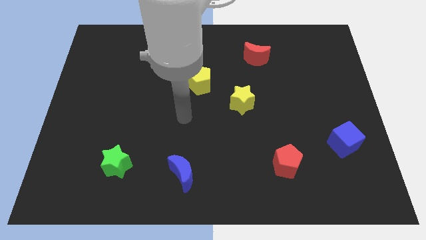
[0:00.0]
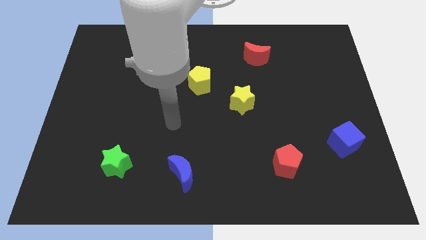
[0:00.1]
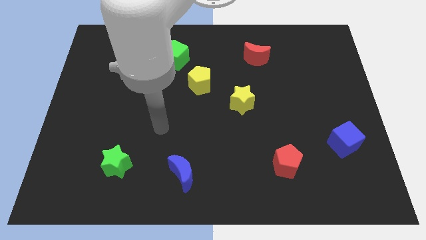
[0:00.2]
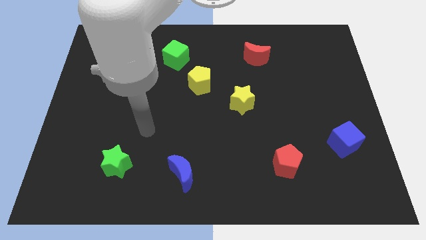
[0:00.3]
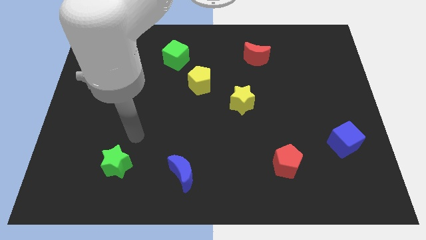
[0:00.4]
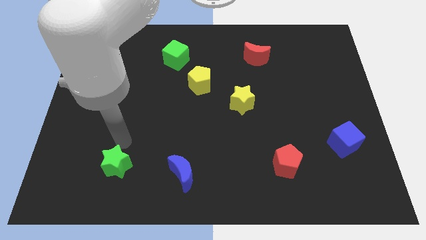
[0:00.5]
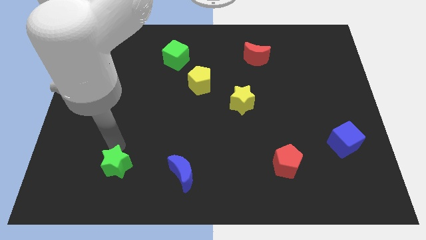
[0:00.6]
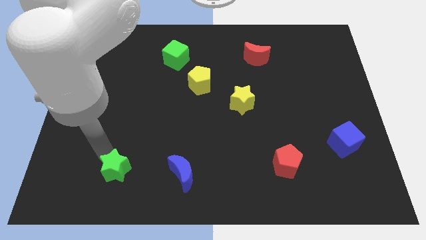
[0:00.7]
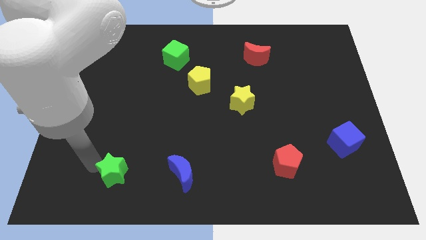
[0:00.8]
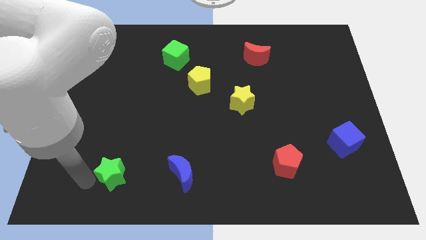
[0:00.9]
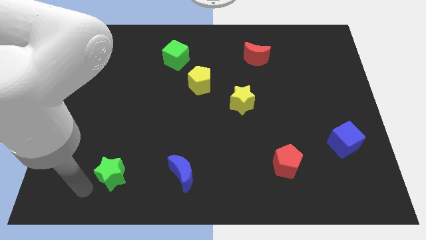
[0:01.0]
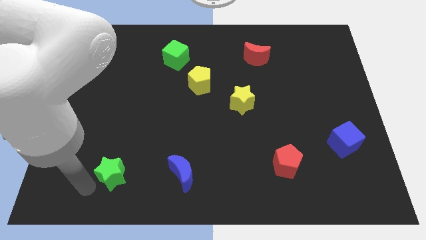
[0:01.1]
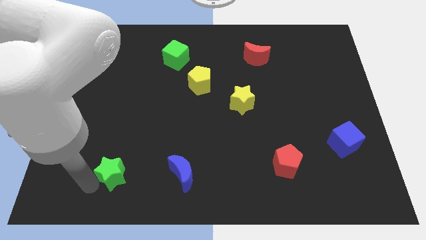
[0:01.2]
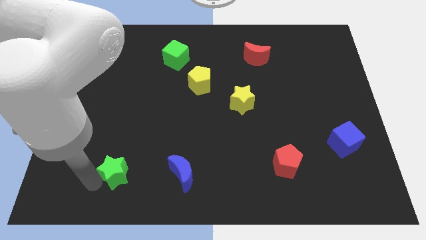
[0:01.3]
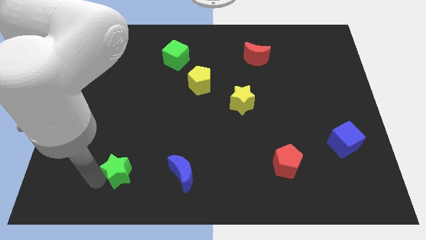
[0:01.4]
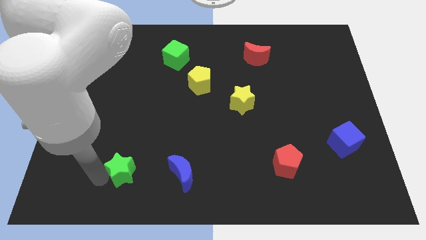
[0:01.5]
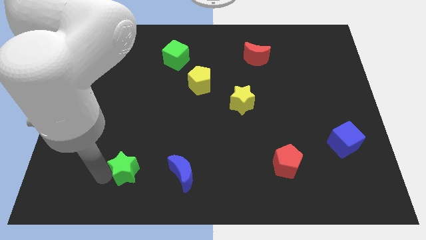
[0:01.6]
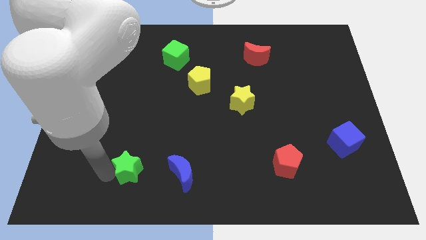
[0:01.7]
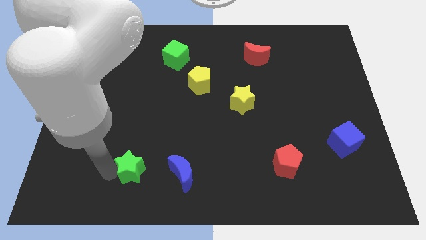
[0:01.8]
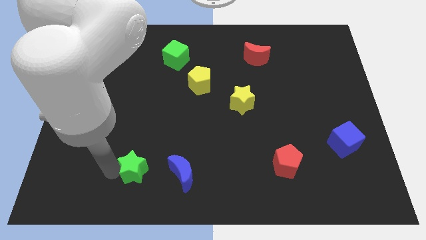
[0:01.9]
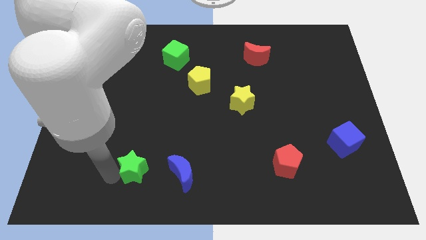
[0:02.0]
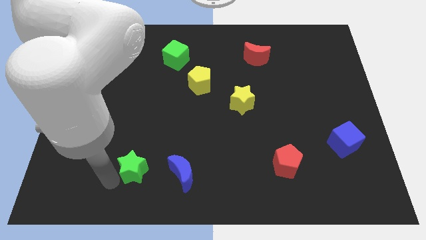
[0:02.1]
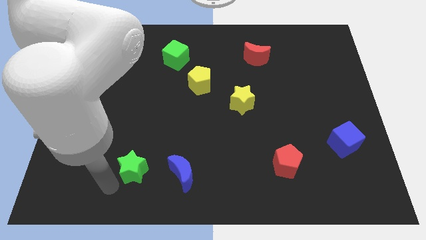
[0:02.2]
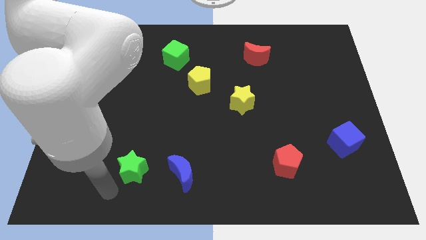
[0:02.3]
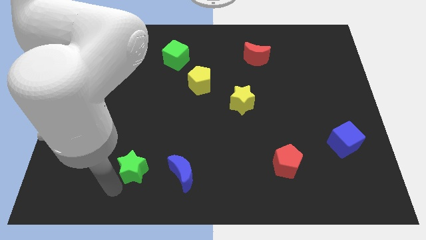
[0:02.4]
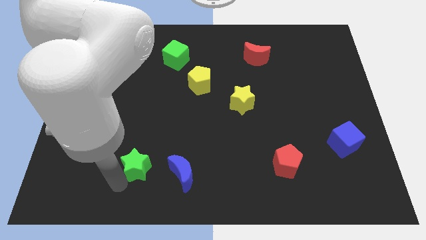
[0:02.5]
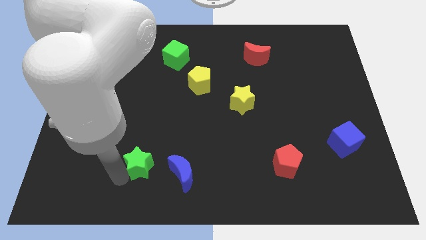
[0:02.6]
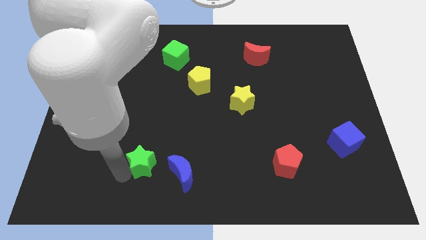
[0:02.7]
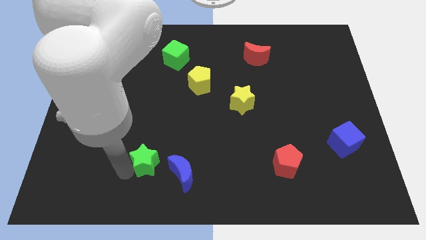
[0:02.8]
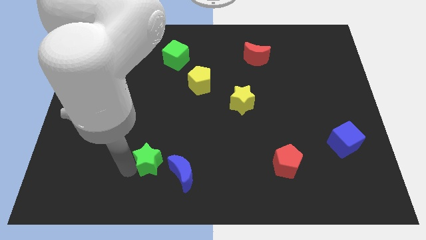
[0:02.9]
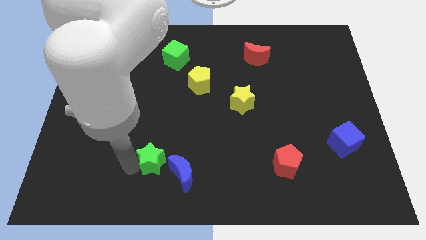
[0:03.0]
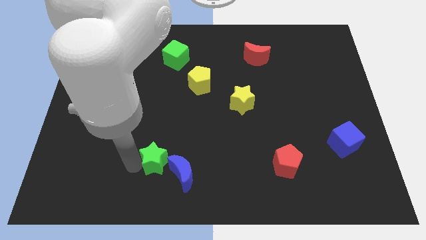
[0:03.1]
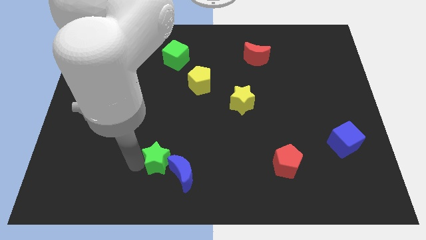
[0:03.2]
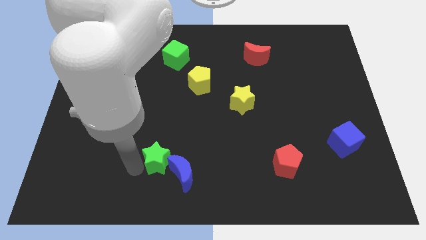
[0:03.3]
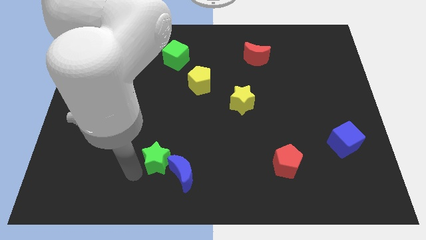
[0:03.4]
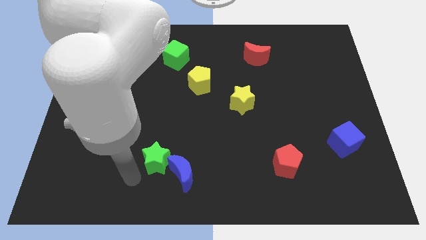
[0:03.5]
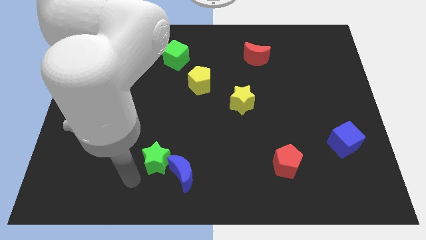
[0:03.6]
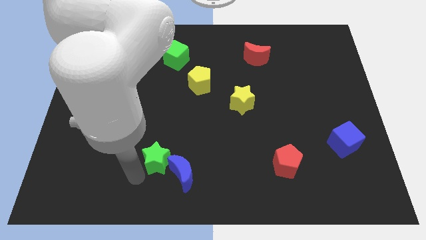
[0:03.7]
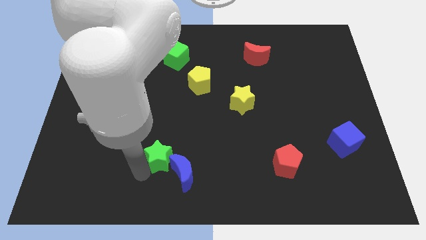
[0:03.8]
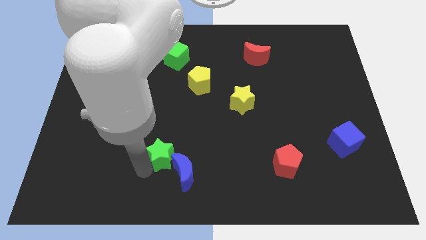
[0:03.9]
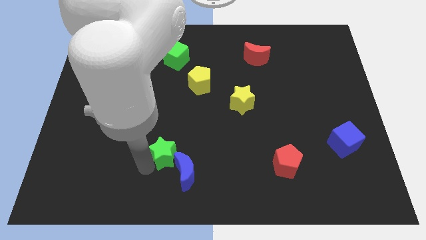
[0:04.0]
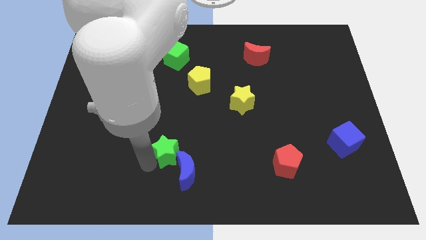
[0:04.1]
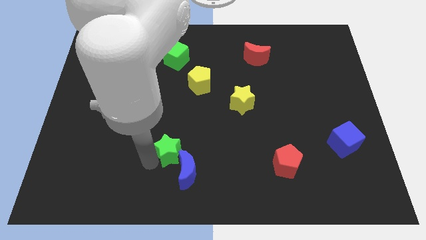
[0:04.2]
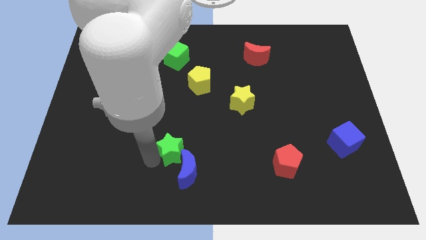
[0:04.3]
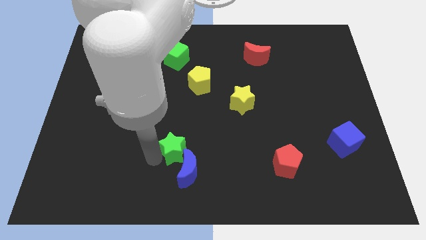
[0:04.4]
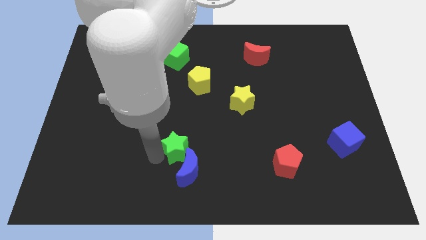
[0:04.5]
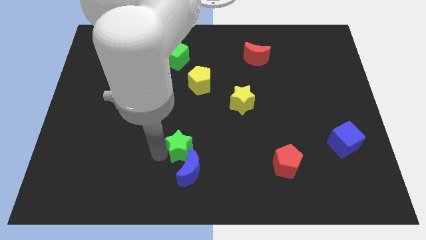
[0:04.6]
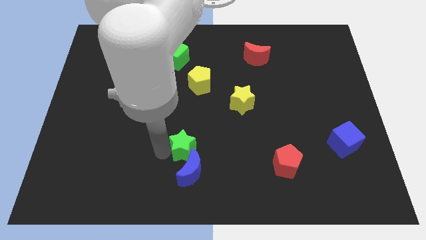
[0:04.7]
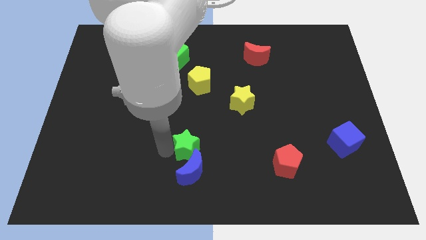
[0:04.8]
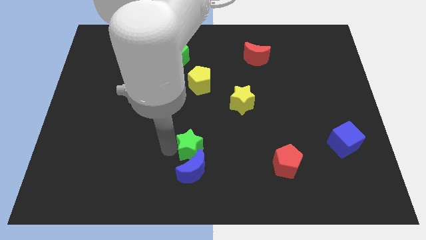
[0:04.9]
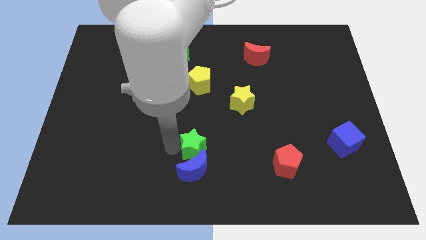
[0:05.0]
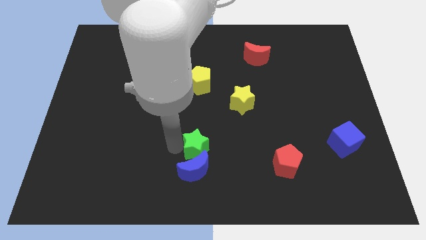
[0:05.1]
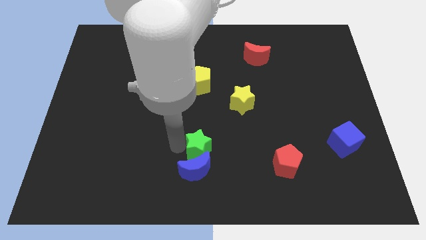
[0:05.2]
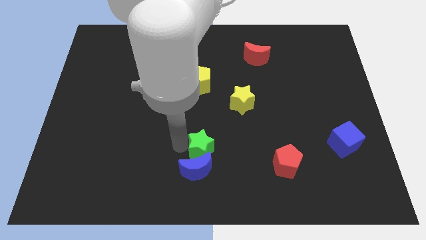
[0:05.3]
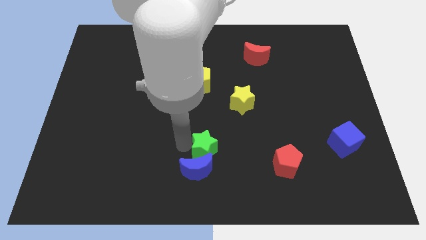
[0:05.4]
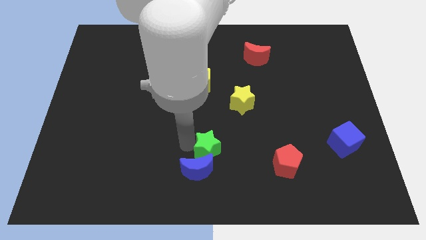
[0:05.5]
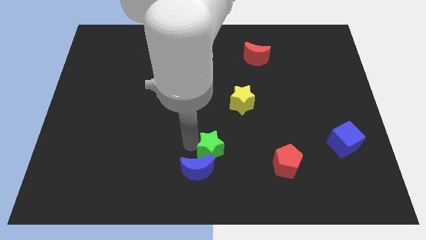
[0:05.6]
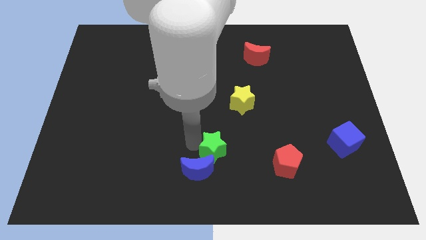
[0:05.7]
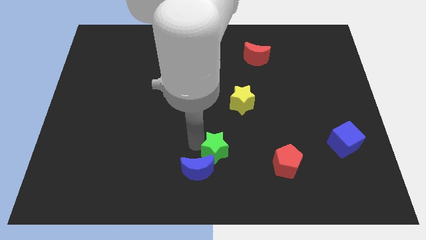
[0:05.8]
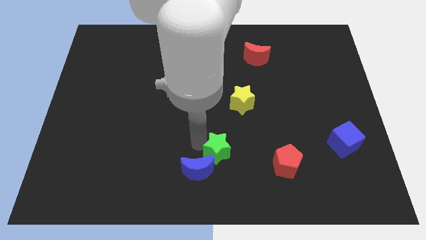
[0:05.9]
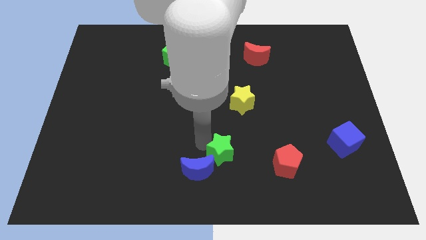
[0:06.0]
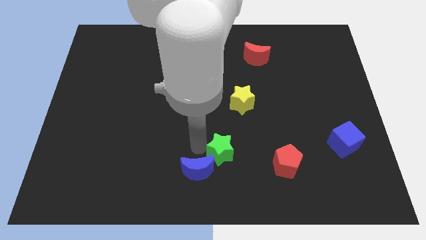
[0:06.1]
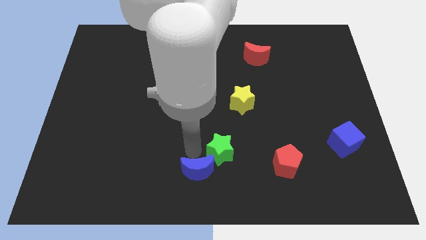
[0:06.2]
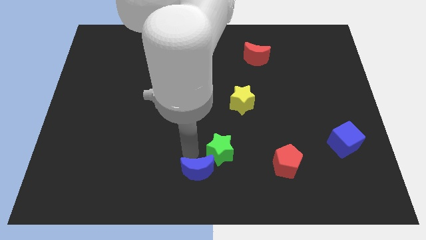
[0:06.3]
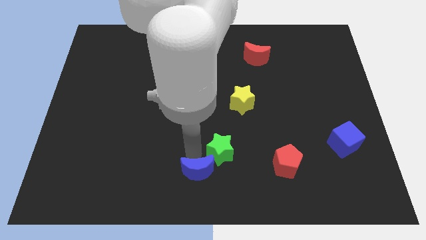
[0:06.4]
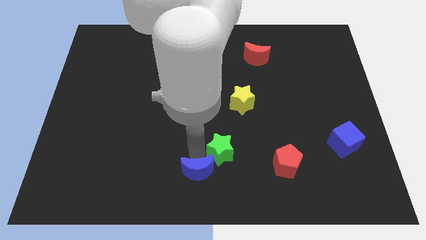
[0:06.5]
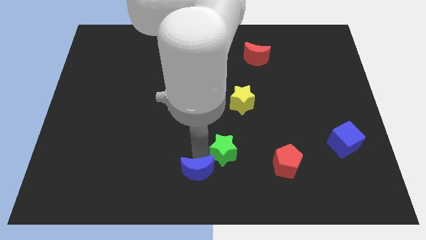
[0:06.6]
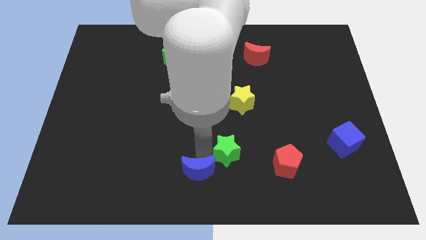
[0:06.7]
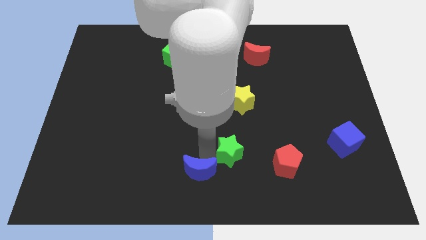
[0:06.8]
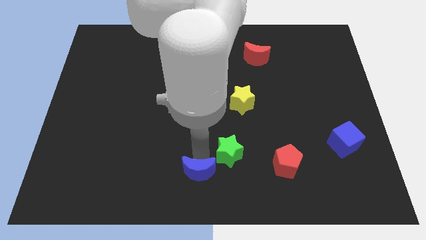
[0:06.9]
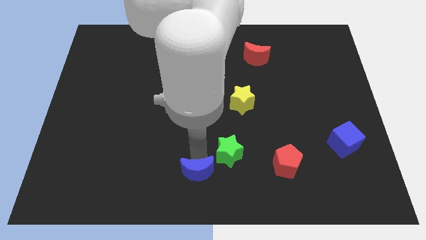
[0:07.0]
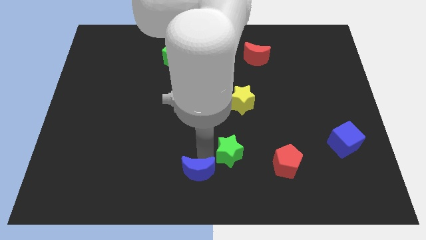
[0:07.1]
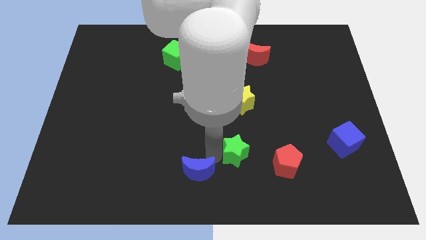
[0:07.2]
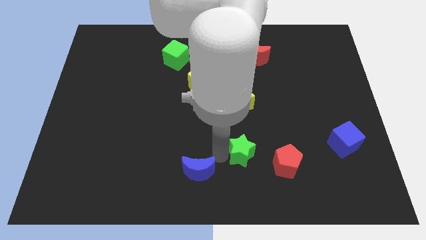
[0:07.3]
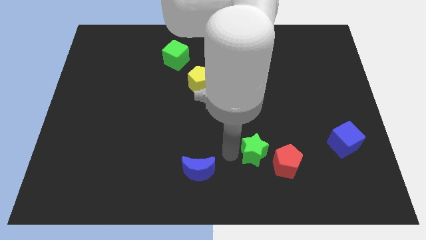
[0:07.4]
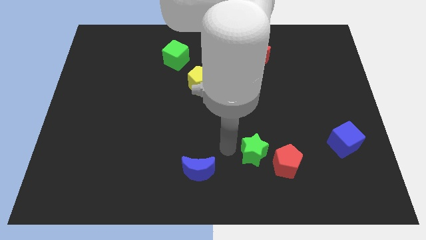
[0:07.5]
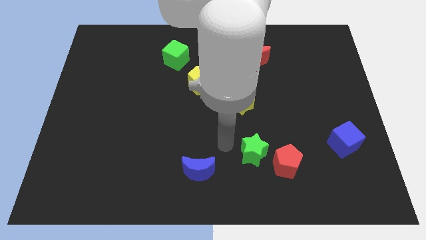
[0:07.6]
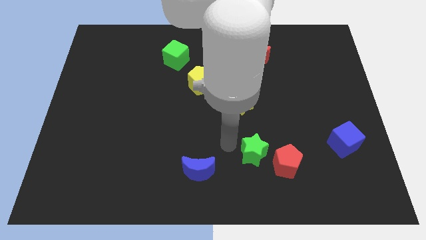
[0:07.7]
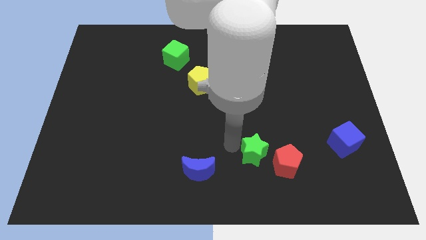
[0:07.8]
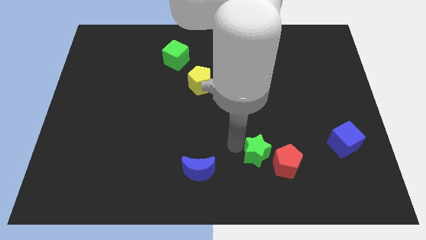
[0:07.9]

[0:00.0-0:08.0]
move the green star next to the red pentagon
